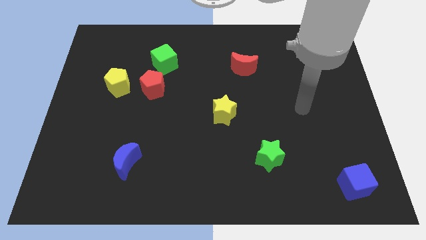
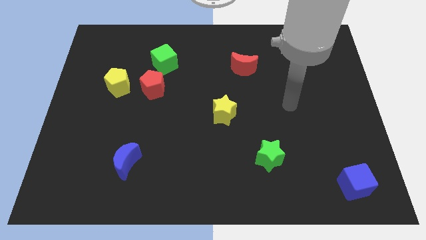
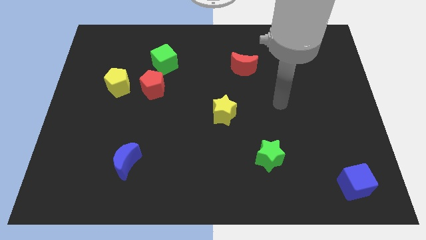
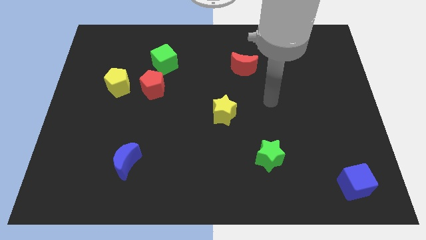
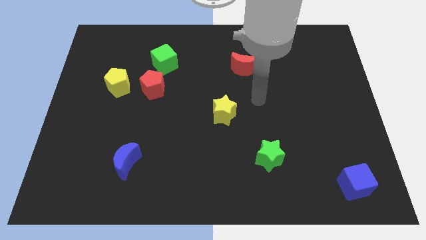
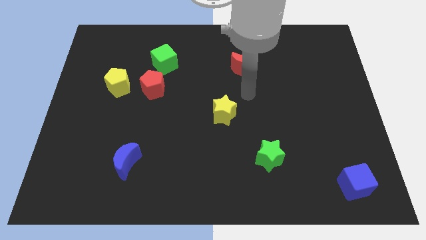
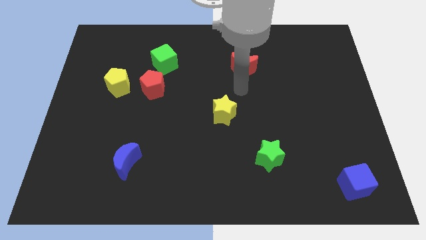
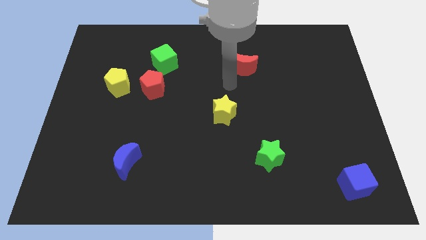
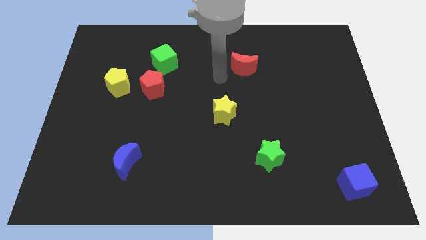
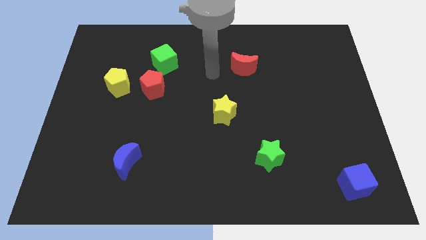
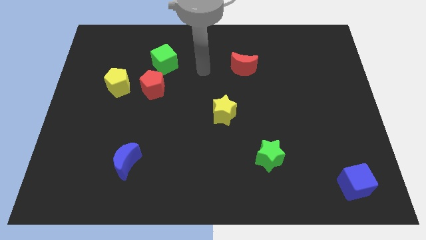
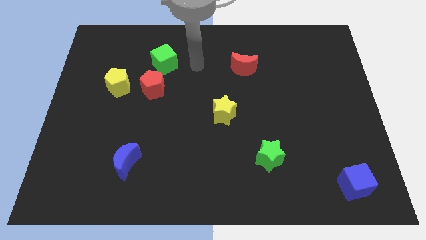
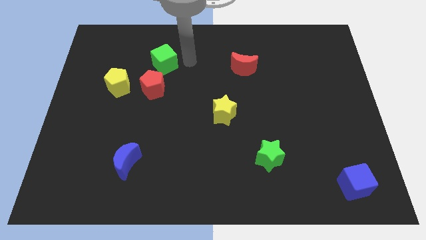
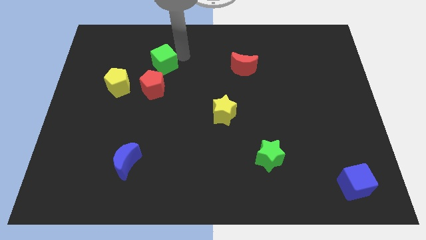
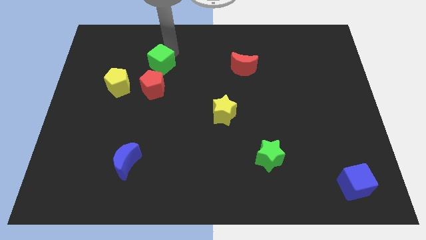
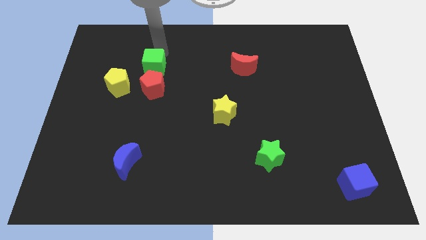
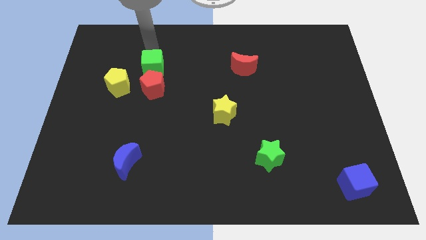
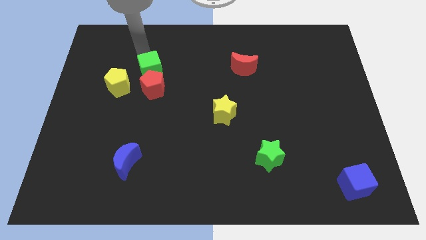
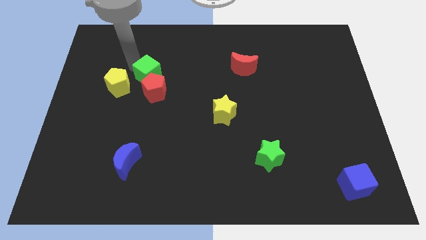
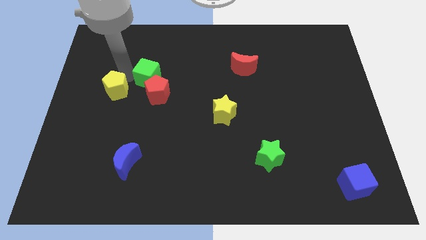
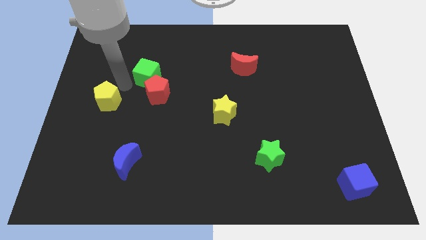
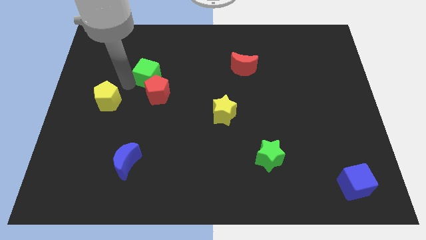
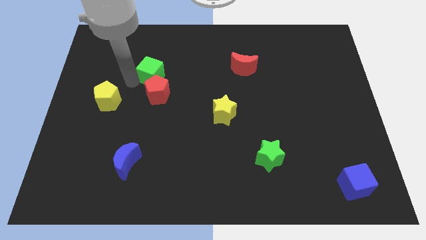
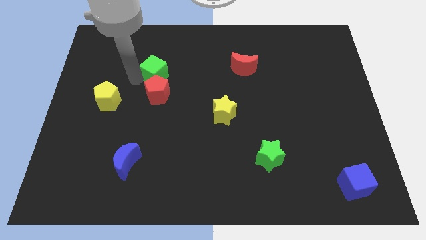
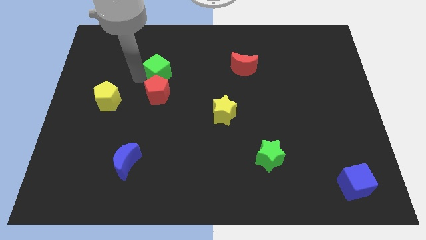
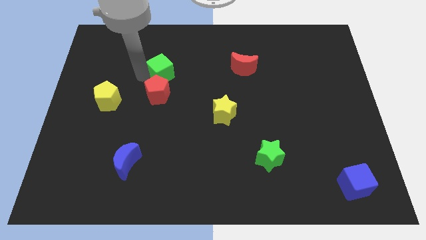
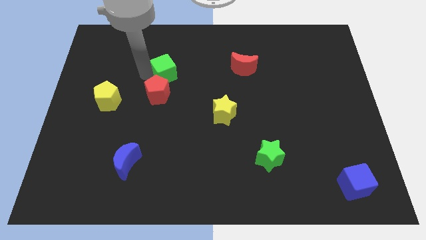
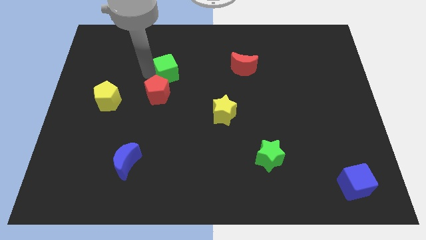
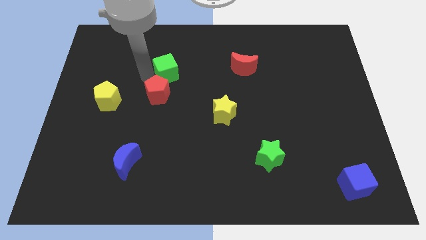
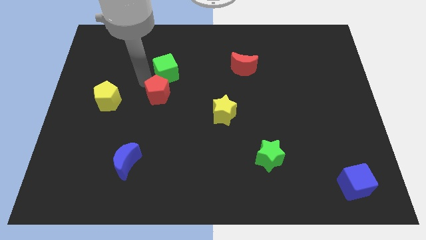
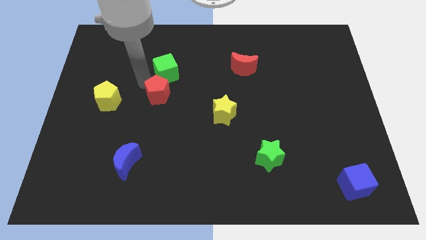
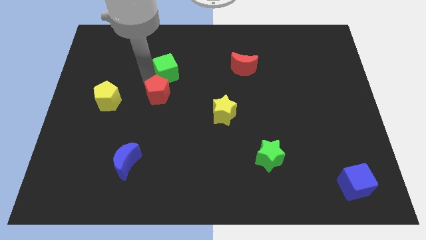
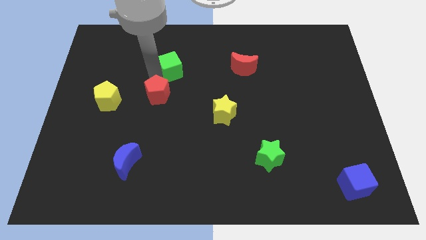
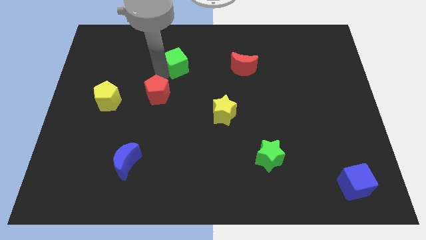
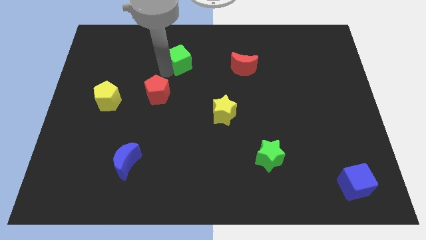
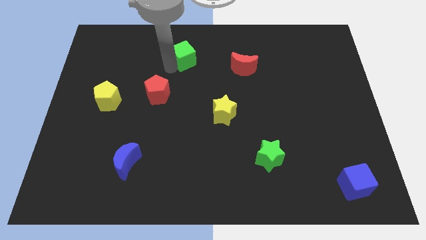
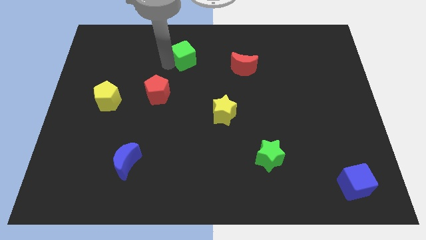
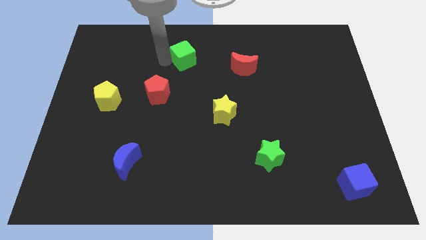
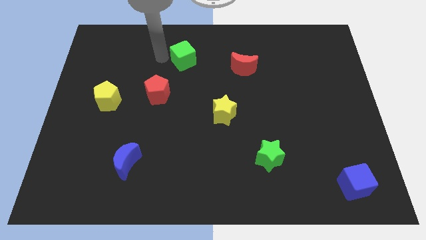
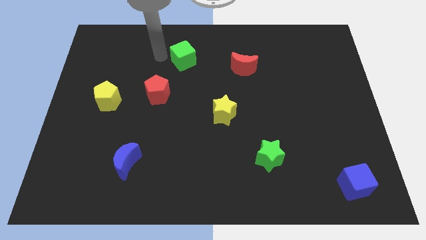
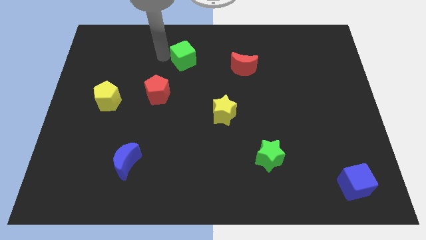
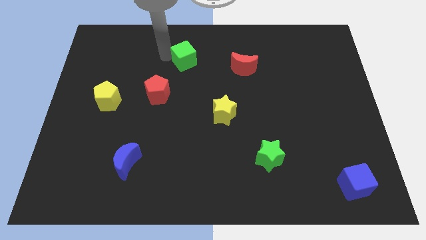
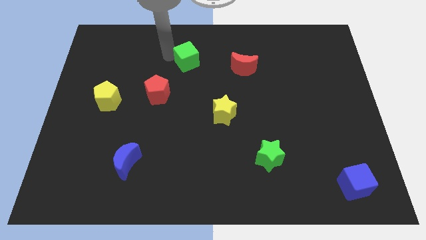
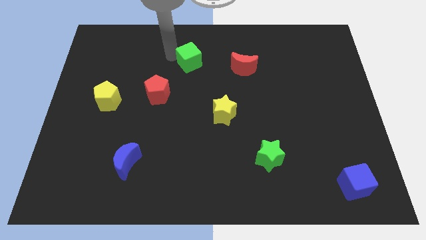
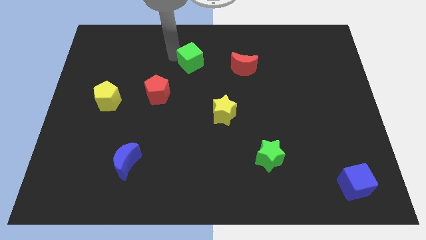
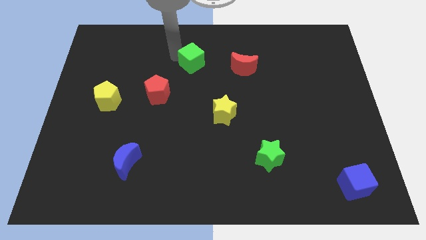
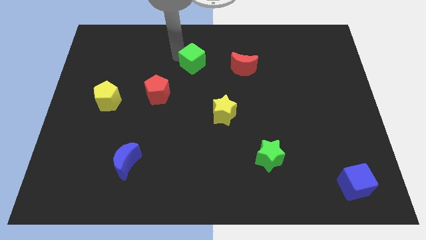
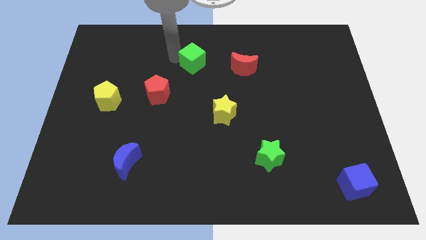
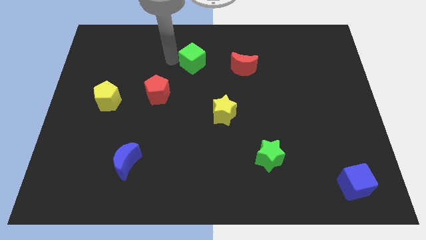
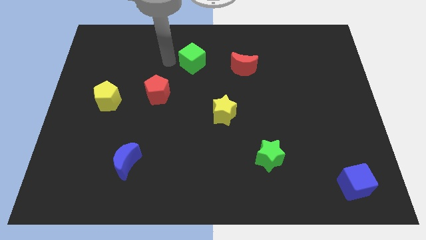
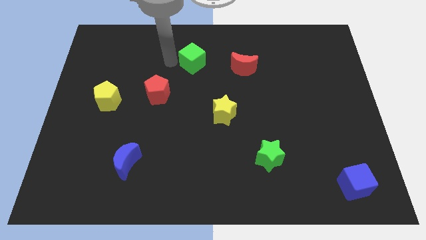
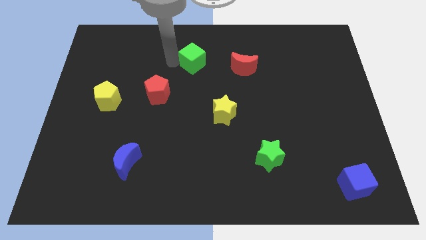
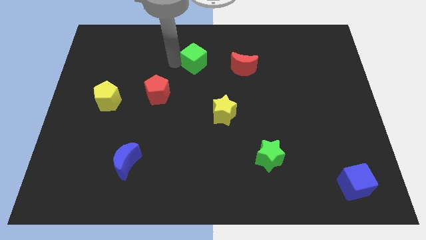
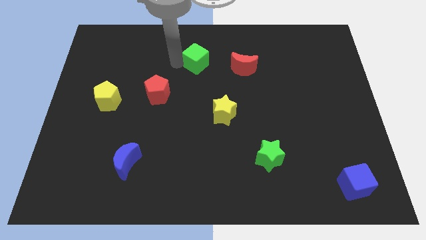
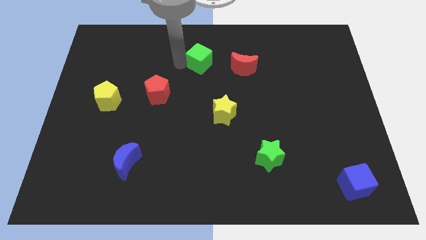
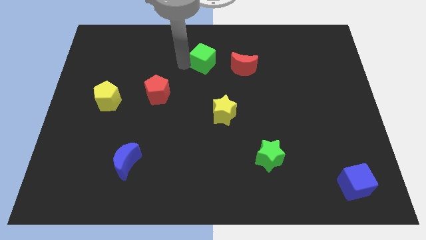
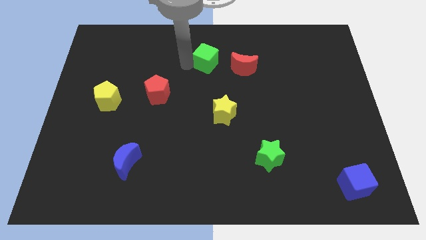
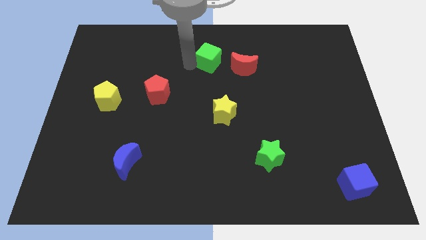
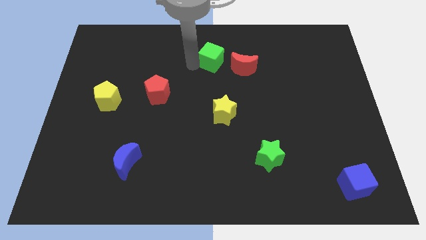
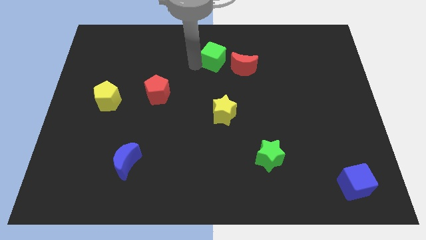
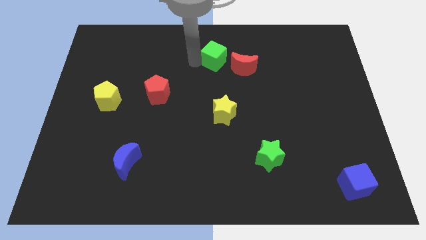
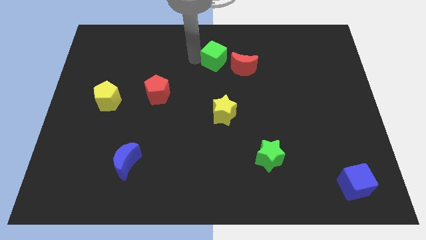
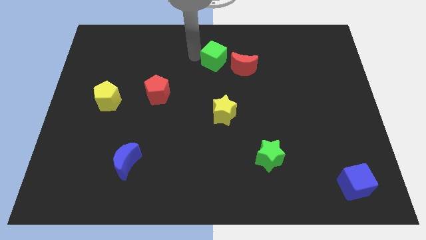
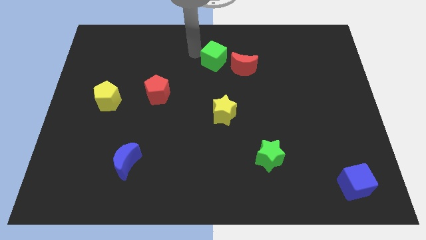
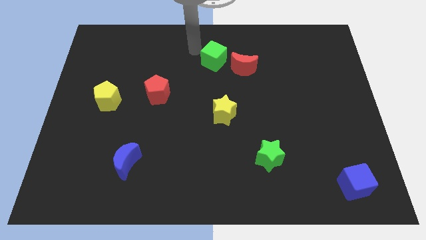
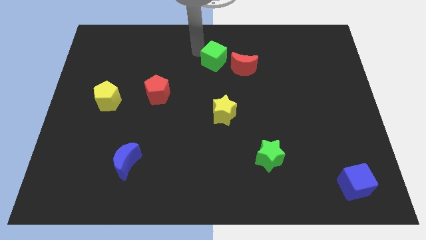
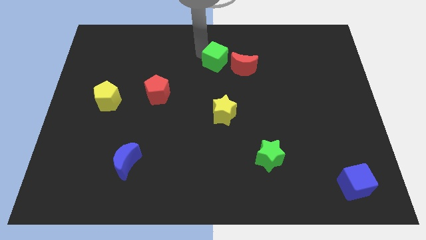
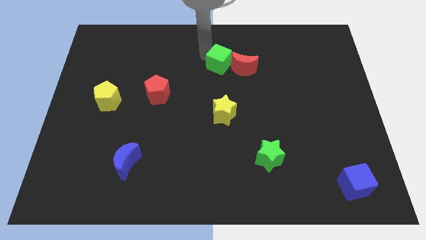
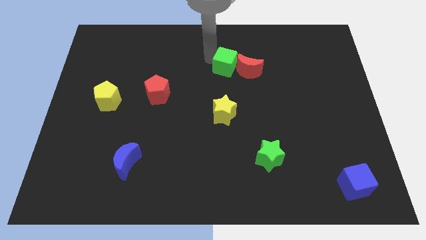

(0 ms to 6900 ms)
put the green cube next to the red moon

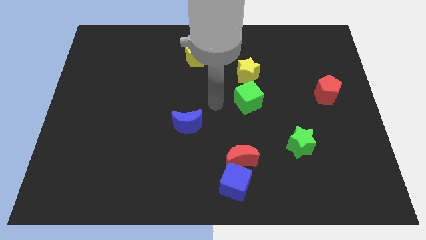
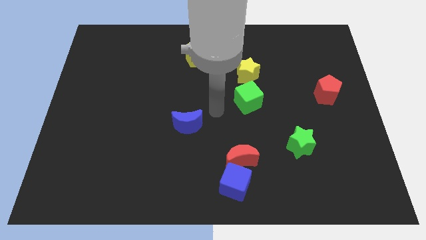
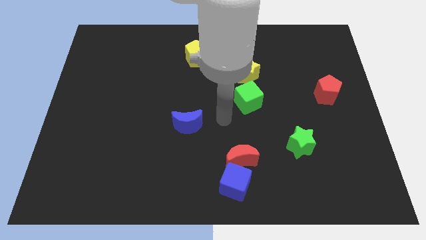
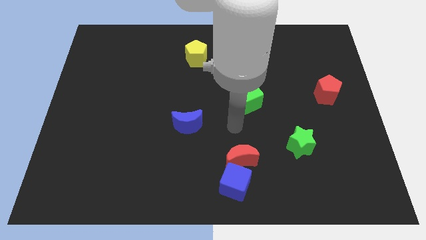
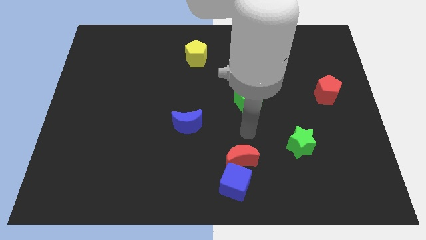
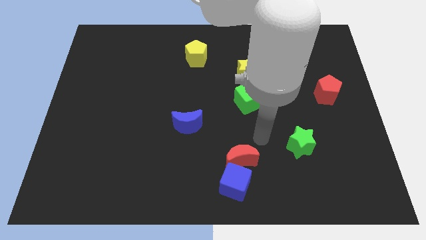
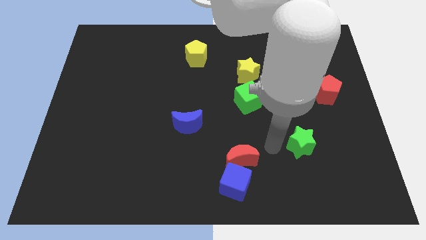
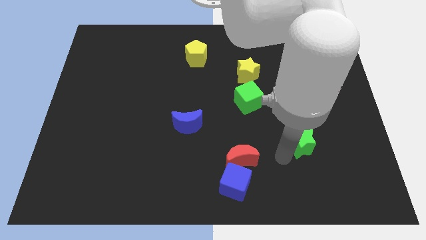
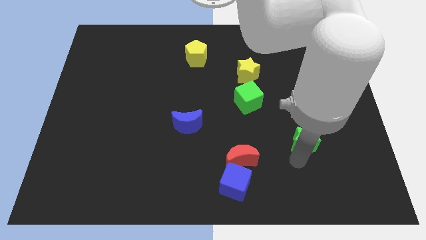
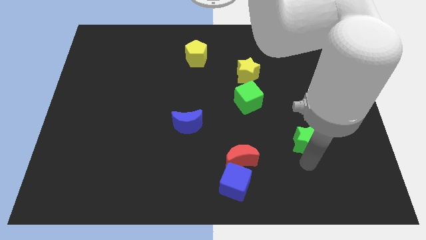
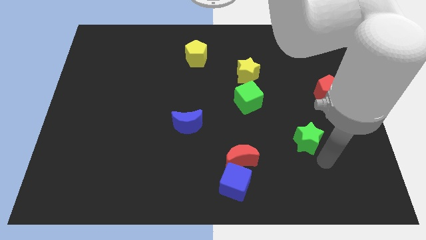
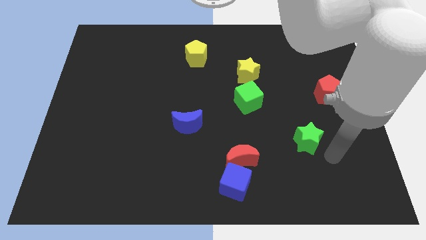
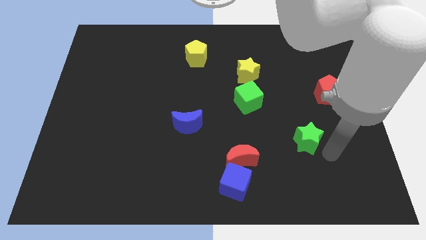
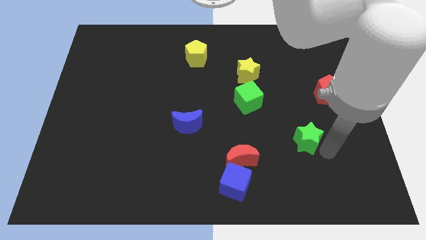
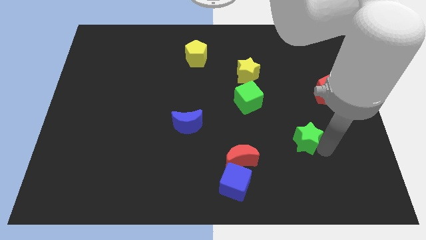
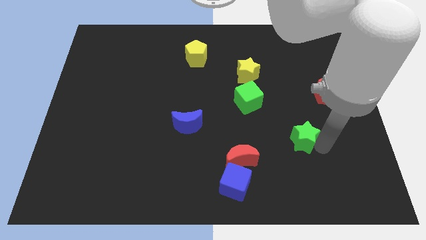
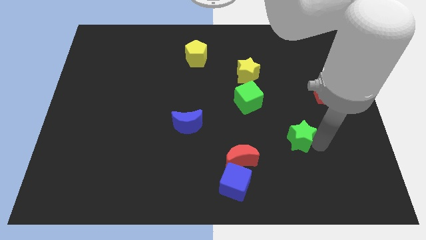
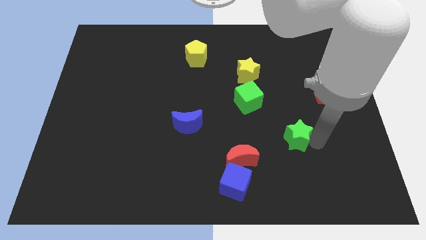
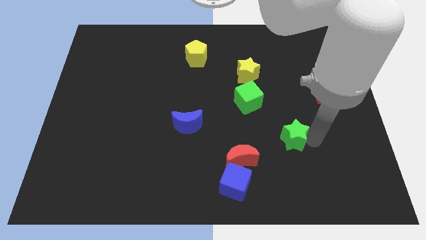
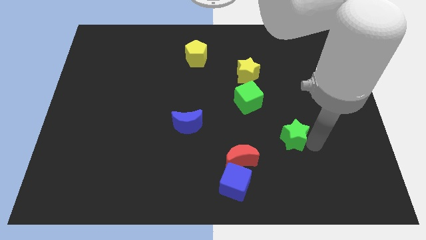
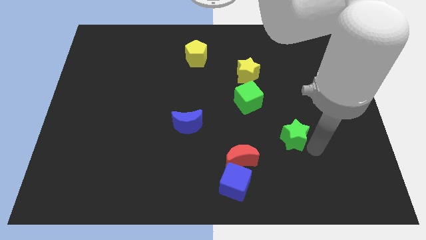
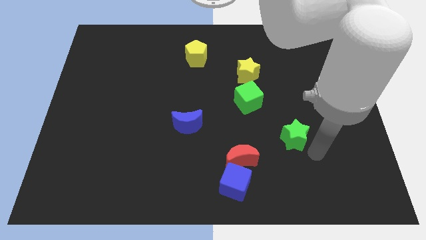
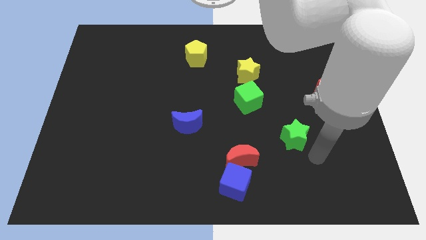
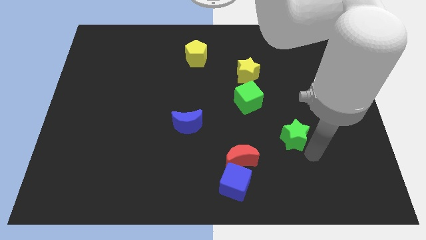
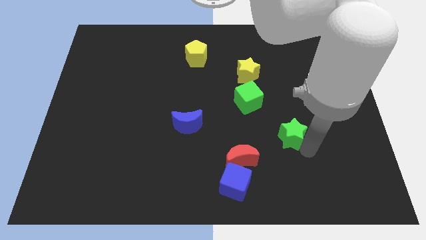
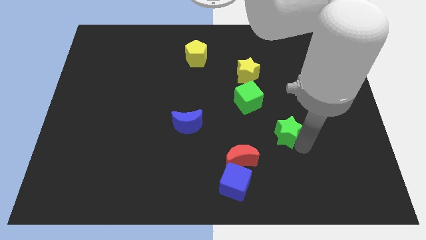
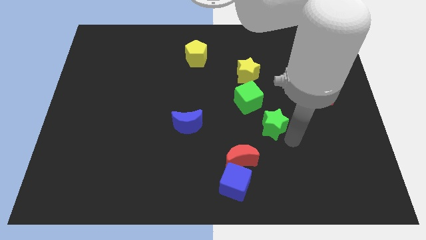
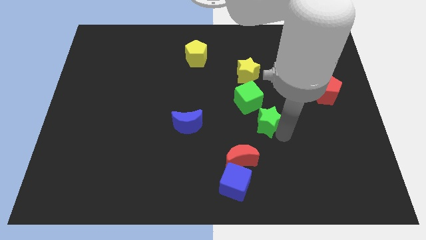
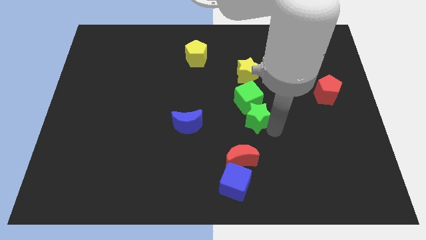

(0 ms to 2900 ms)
put the green star close to the green cube
